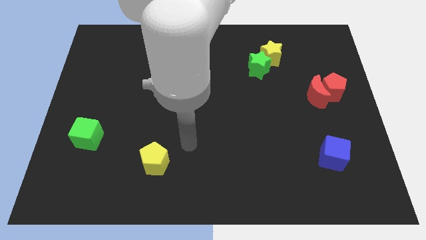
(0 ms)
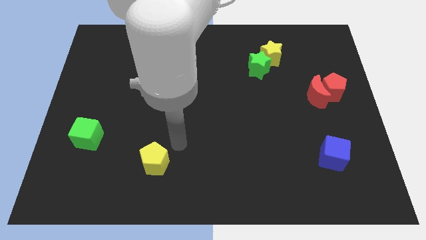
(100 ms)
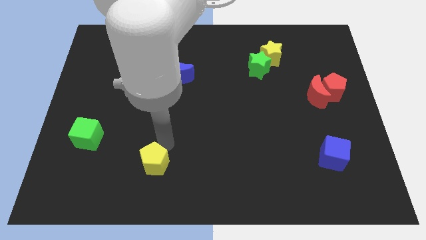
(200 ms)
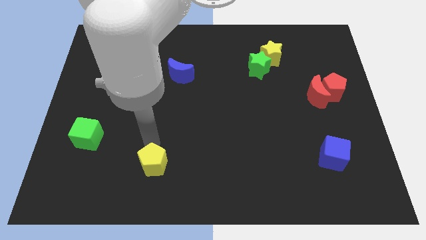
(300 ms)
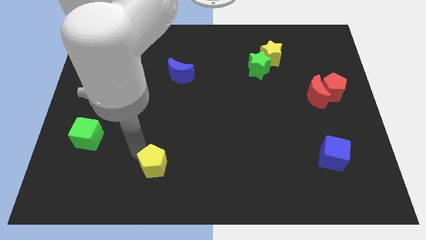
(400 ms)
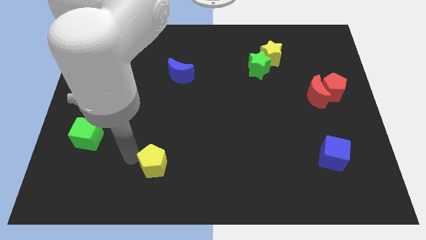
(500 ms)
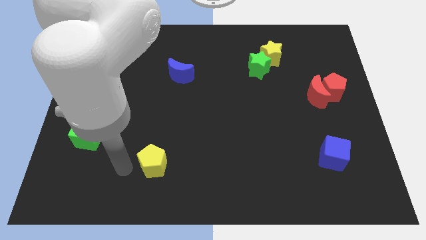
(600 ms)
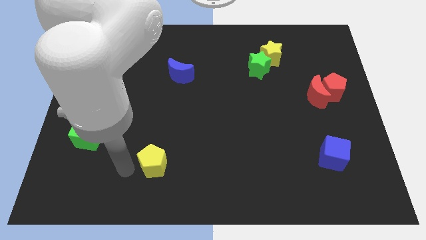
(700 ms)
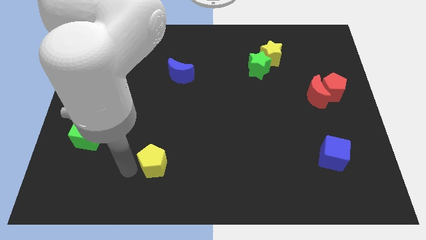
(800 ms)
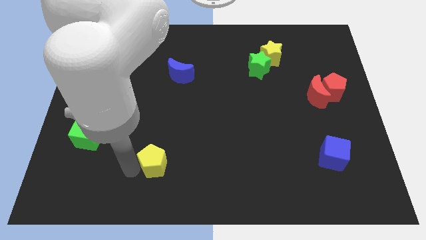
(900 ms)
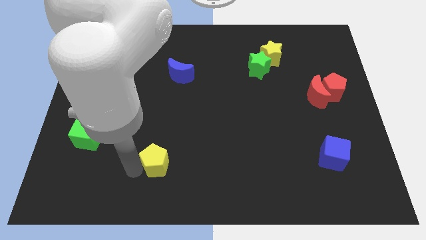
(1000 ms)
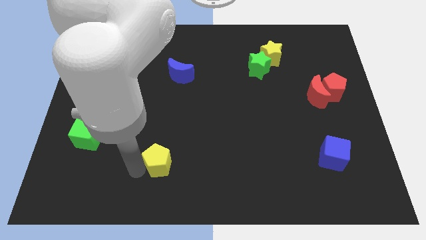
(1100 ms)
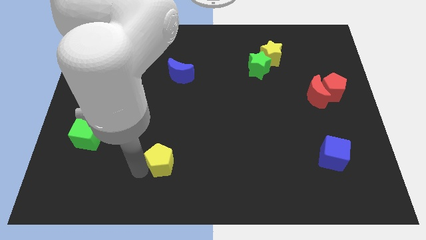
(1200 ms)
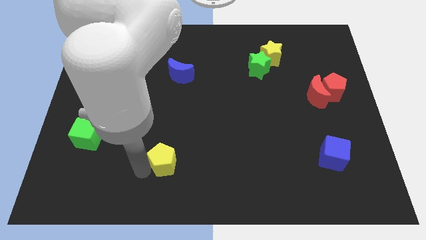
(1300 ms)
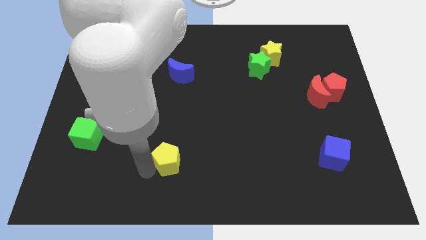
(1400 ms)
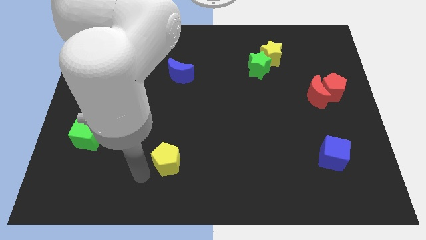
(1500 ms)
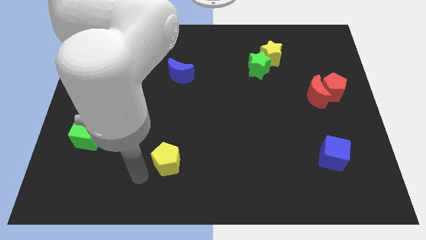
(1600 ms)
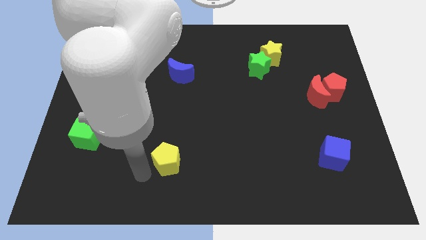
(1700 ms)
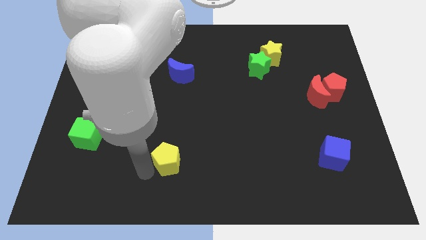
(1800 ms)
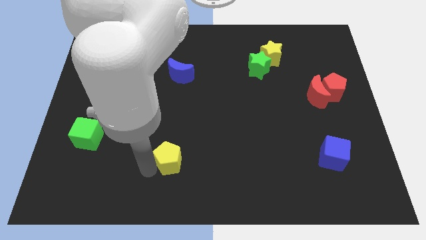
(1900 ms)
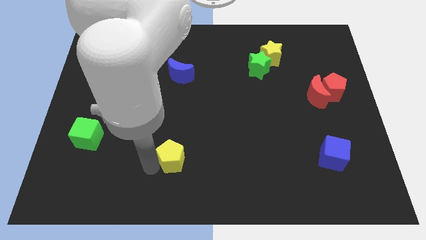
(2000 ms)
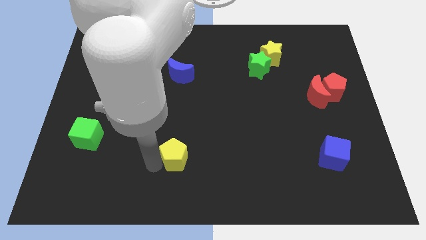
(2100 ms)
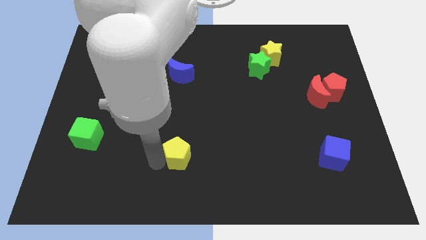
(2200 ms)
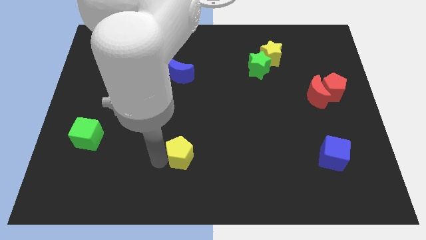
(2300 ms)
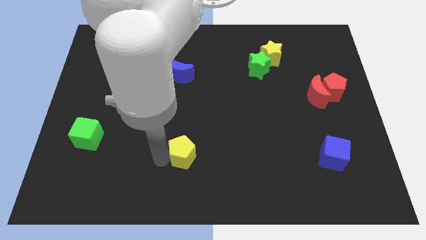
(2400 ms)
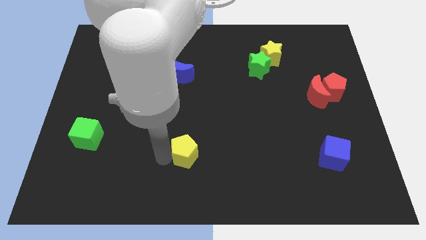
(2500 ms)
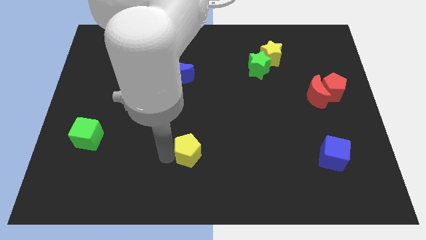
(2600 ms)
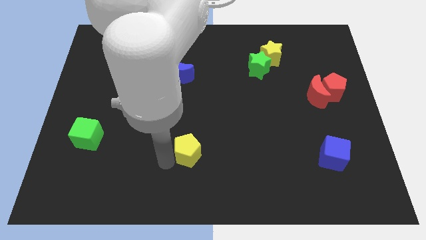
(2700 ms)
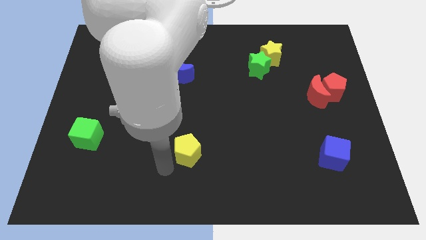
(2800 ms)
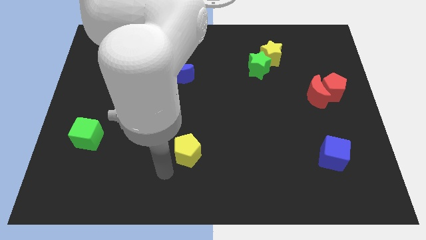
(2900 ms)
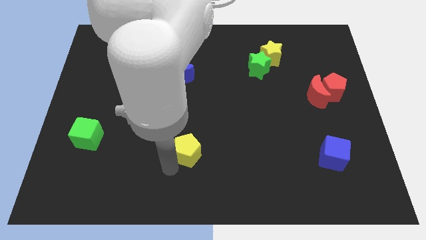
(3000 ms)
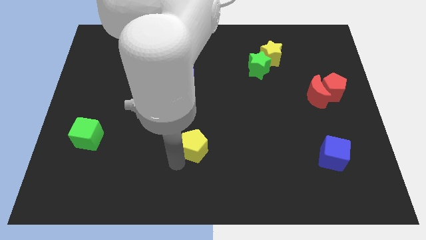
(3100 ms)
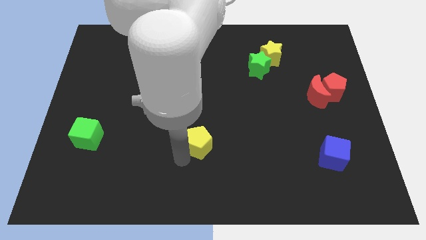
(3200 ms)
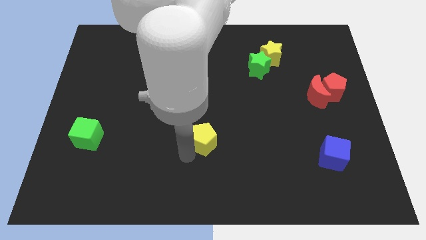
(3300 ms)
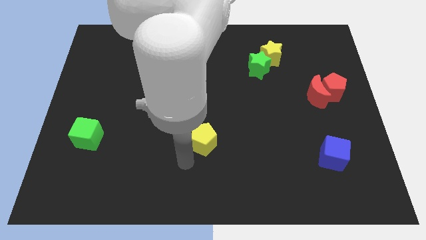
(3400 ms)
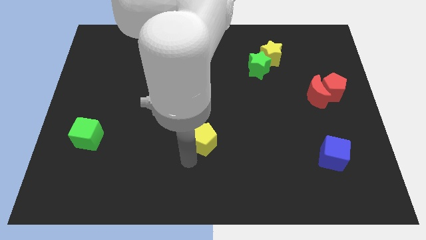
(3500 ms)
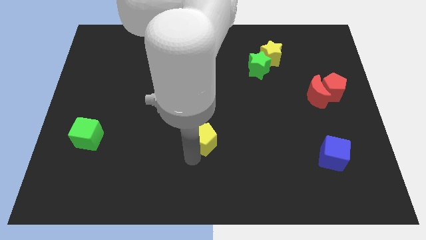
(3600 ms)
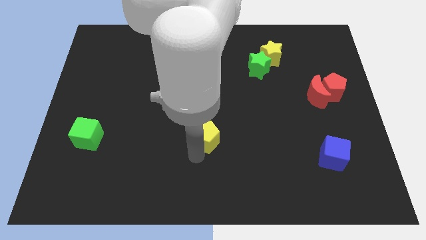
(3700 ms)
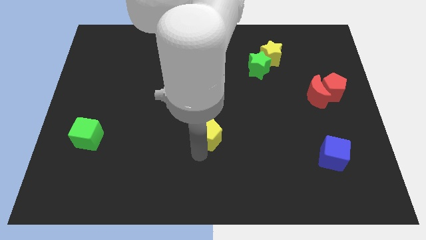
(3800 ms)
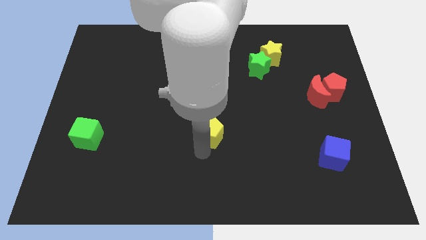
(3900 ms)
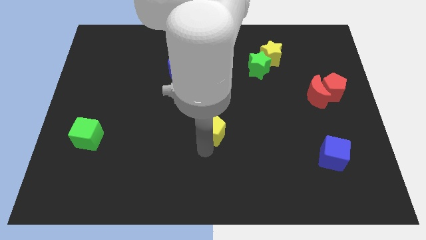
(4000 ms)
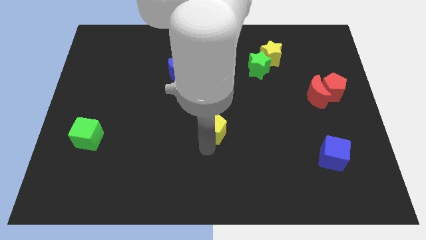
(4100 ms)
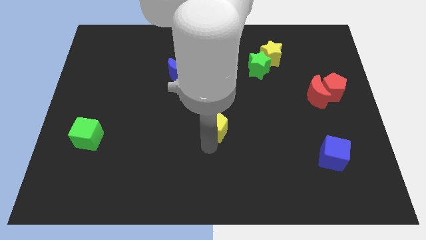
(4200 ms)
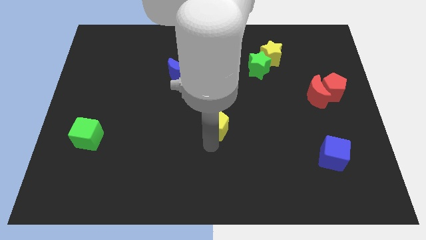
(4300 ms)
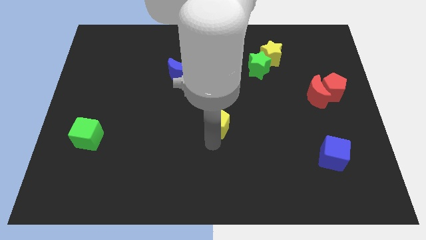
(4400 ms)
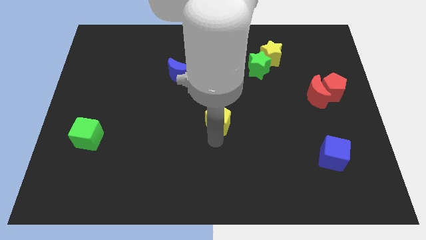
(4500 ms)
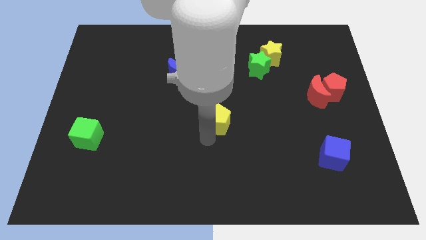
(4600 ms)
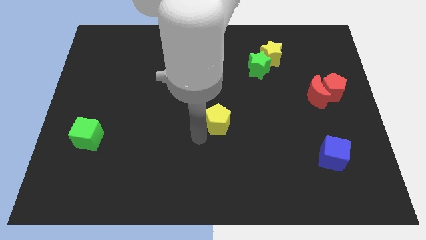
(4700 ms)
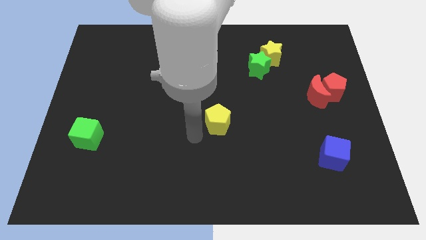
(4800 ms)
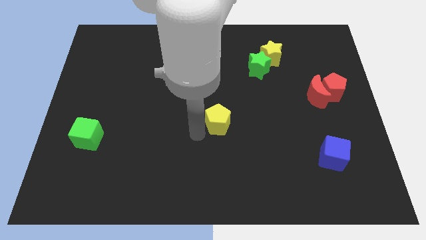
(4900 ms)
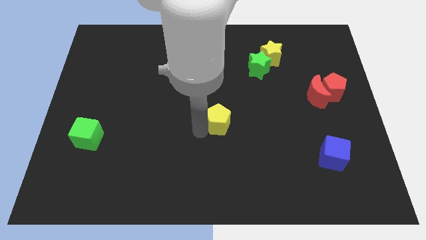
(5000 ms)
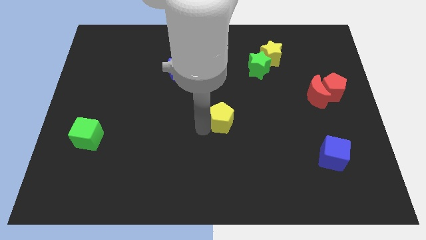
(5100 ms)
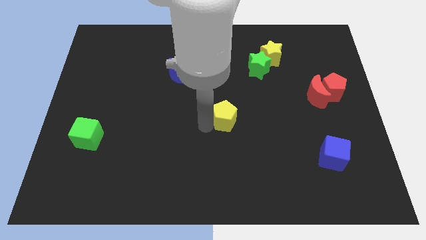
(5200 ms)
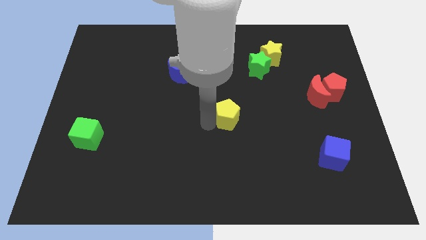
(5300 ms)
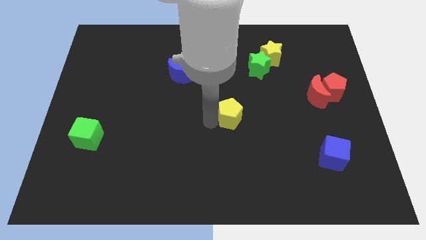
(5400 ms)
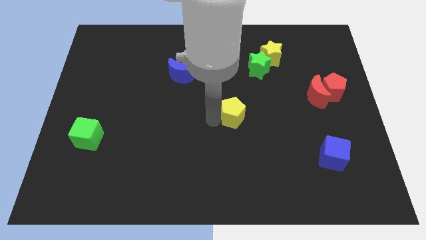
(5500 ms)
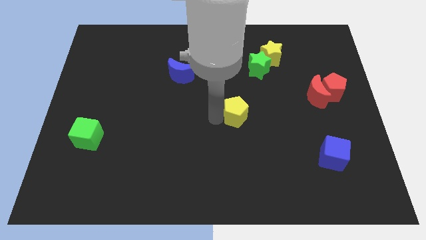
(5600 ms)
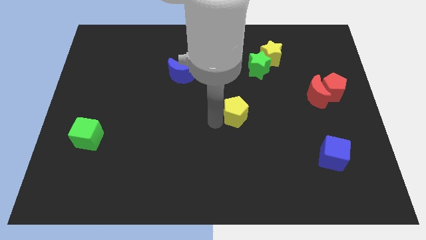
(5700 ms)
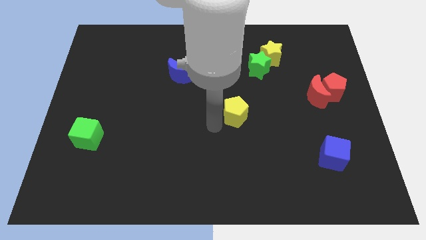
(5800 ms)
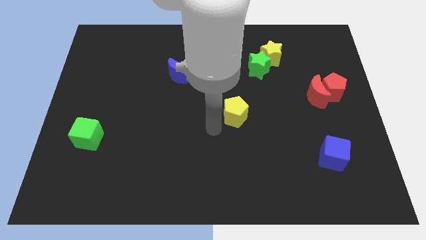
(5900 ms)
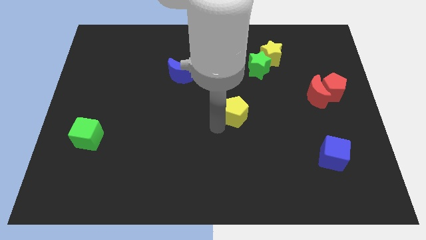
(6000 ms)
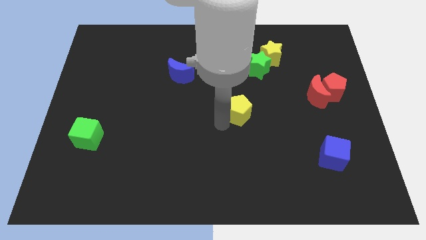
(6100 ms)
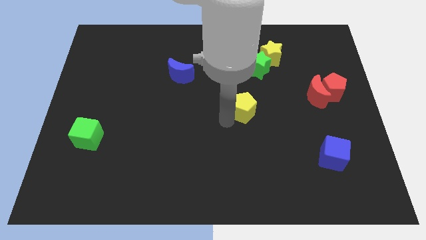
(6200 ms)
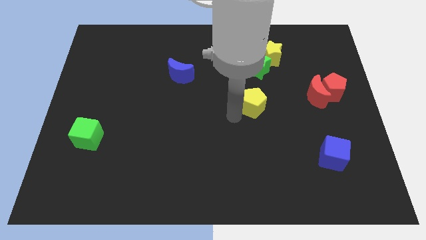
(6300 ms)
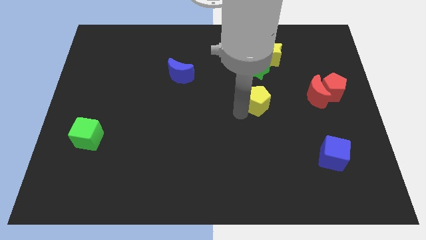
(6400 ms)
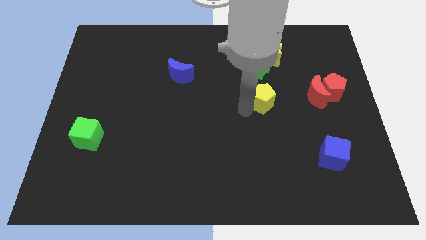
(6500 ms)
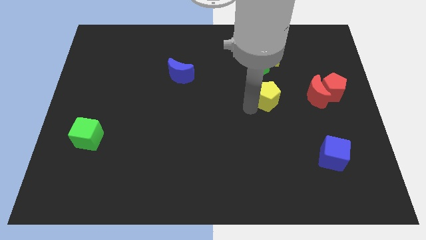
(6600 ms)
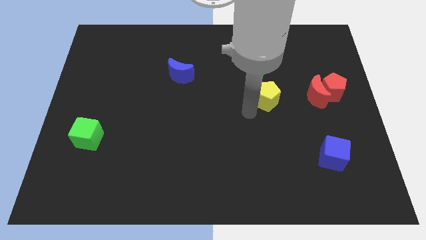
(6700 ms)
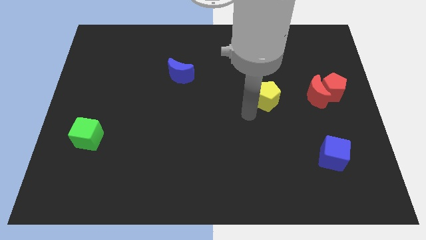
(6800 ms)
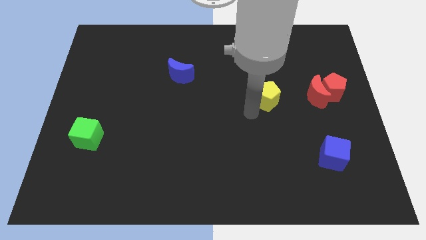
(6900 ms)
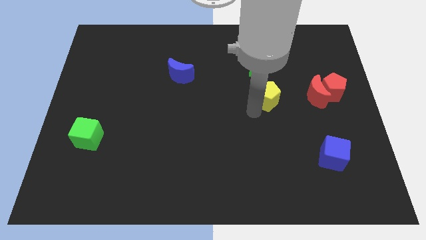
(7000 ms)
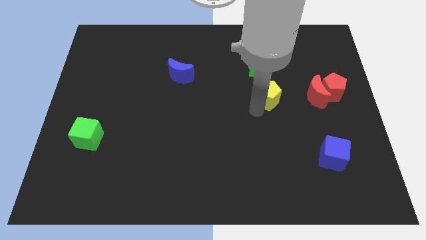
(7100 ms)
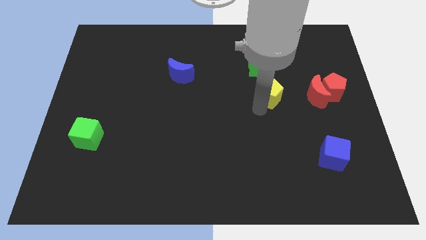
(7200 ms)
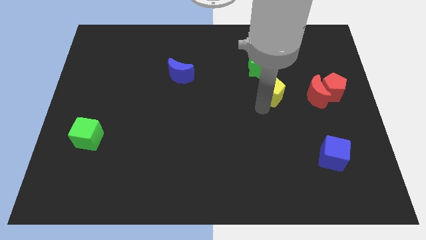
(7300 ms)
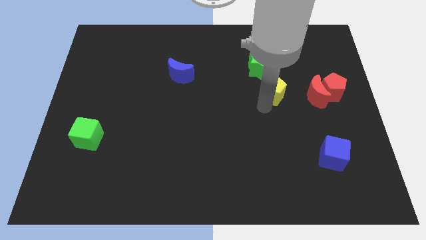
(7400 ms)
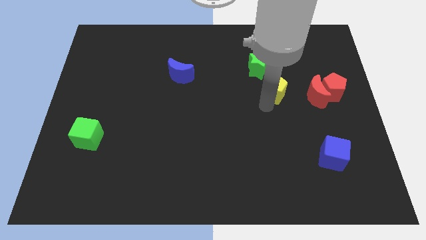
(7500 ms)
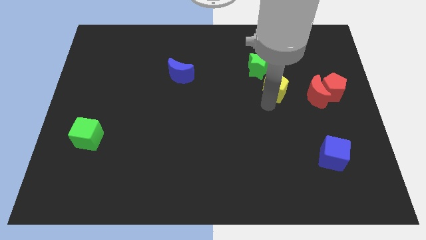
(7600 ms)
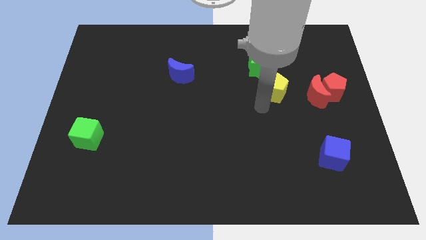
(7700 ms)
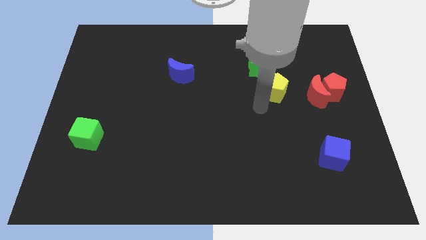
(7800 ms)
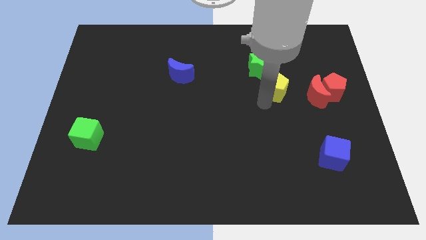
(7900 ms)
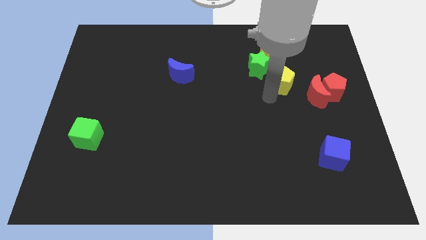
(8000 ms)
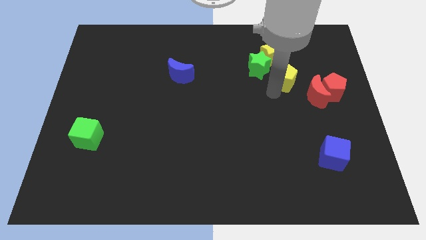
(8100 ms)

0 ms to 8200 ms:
move the yellow pentagon diagonally down and to the right of the yellow star
